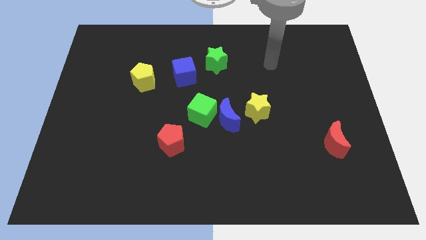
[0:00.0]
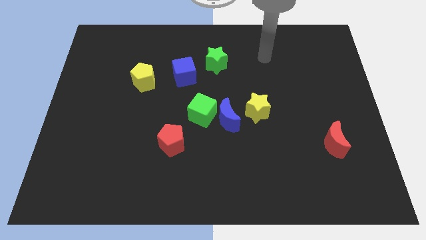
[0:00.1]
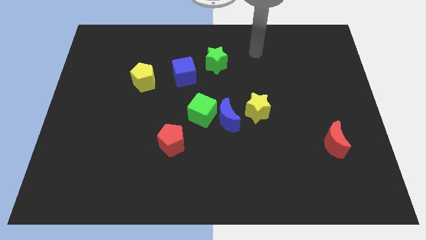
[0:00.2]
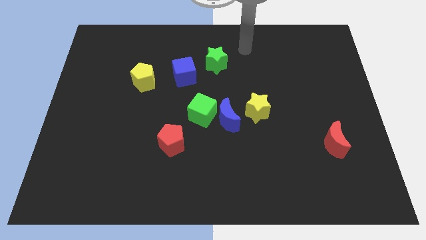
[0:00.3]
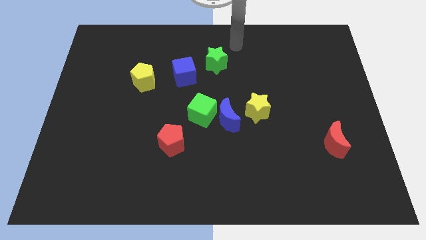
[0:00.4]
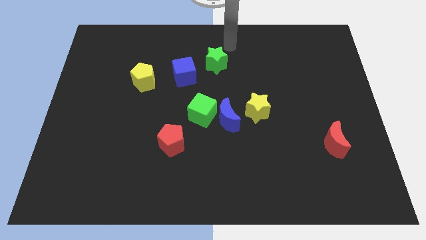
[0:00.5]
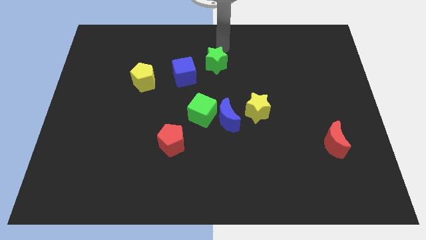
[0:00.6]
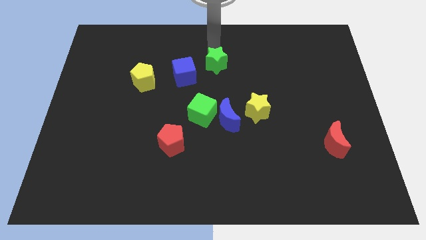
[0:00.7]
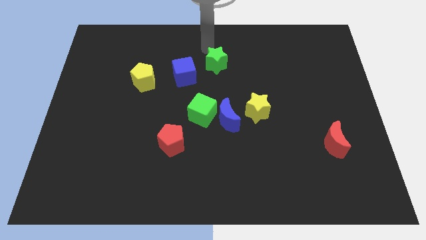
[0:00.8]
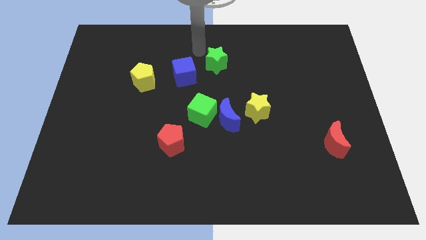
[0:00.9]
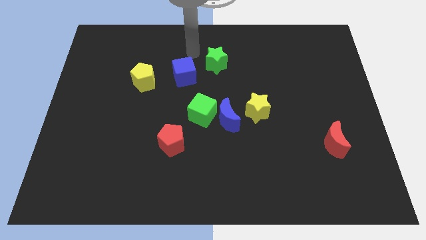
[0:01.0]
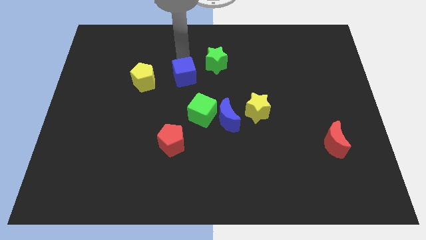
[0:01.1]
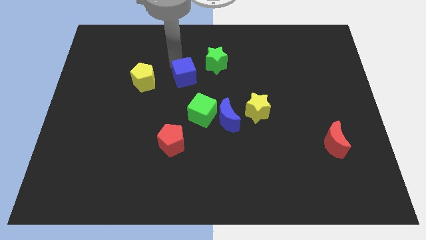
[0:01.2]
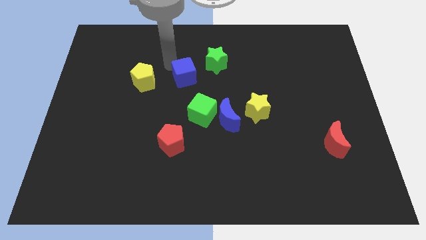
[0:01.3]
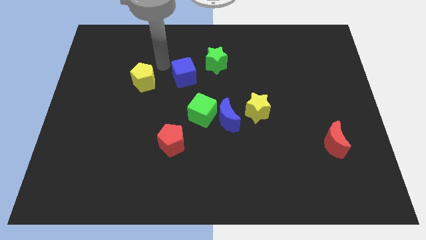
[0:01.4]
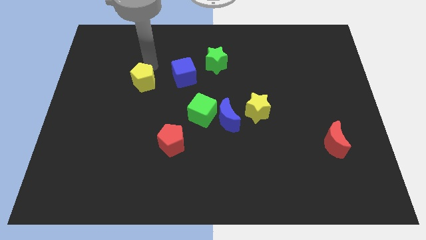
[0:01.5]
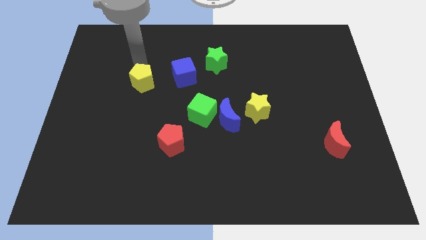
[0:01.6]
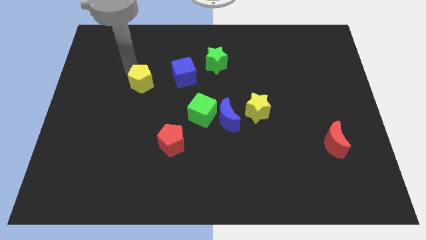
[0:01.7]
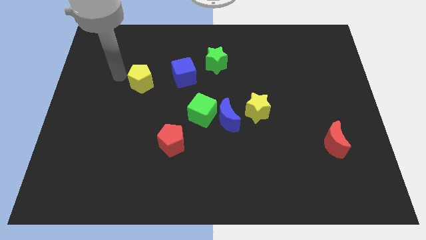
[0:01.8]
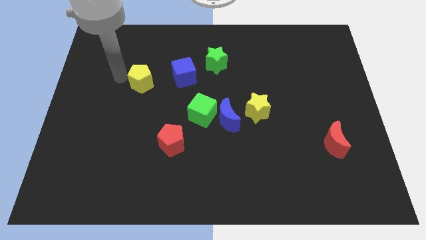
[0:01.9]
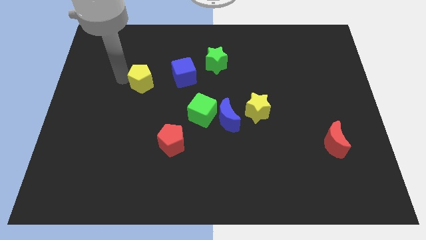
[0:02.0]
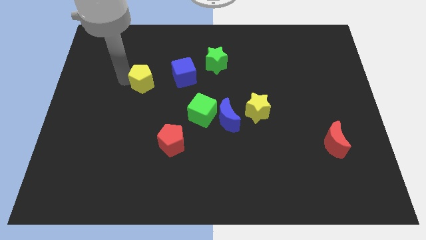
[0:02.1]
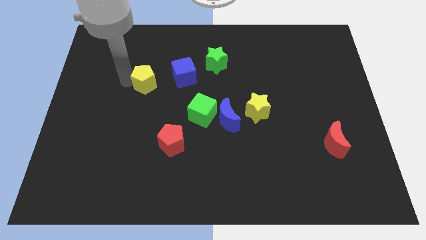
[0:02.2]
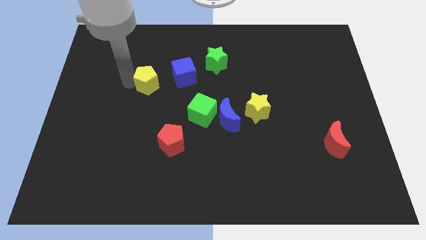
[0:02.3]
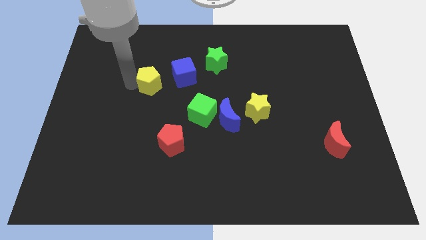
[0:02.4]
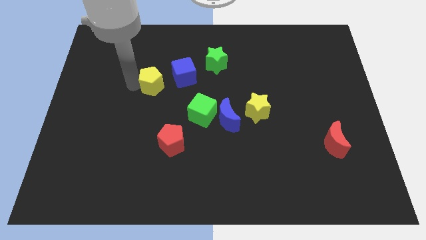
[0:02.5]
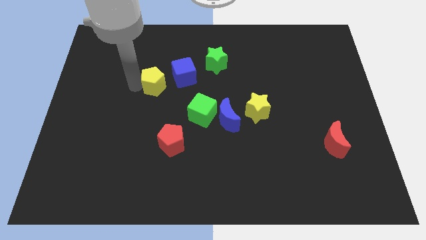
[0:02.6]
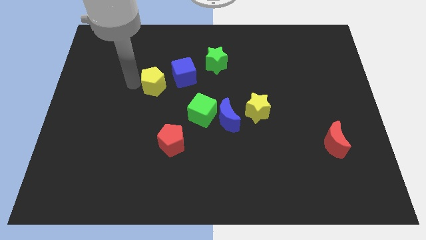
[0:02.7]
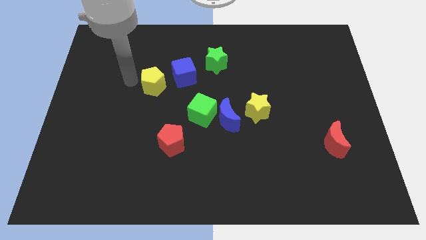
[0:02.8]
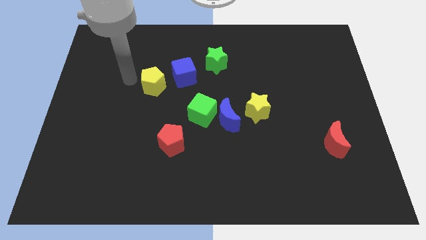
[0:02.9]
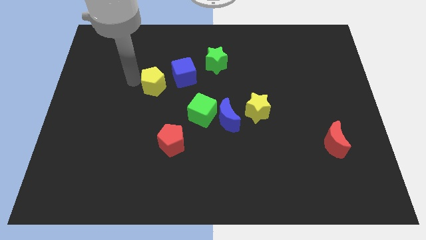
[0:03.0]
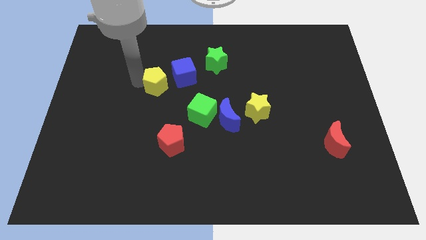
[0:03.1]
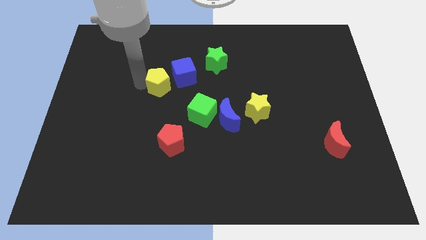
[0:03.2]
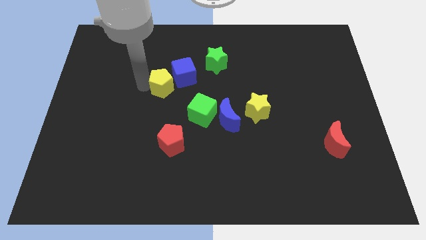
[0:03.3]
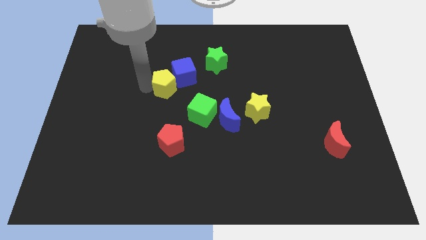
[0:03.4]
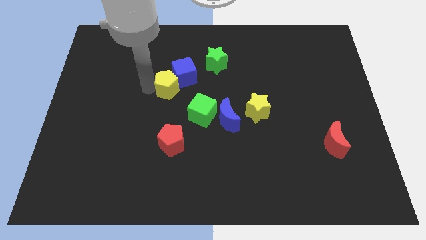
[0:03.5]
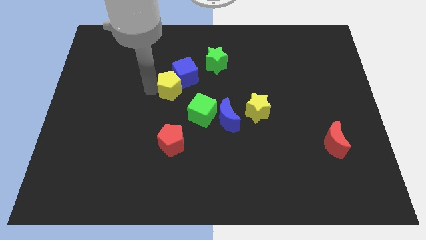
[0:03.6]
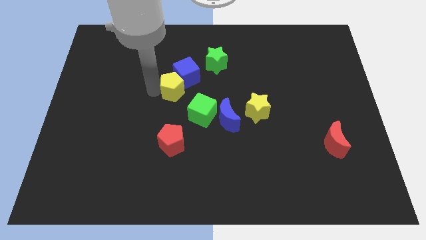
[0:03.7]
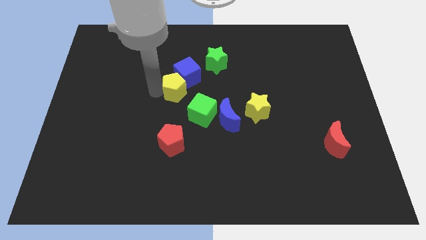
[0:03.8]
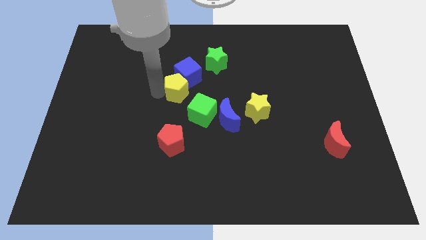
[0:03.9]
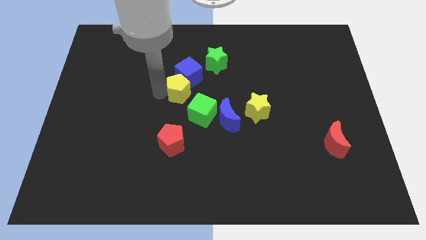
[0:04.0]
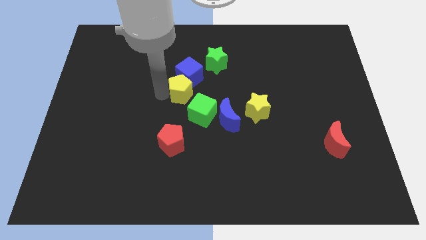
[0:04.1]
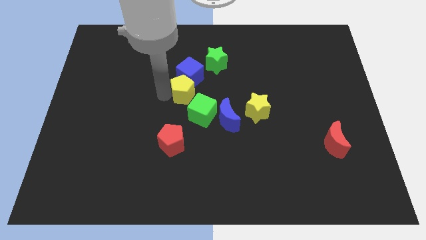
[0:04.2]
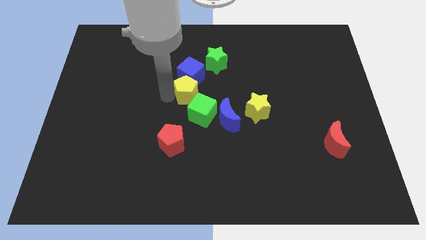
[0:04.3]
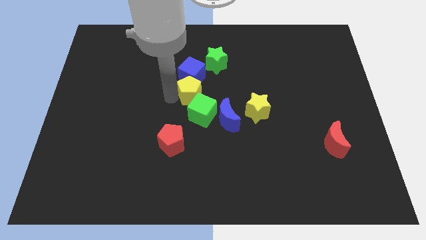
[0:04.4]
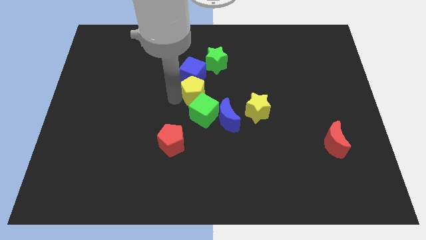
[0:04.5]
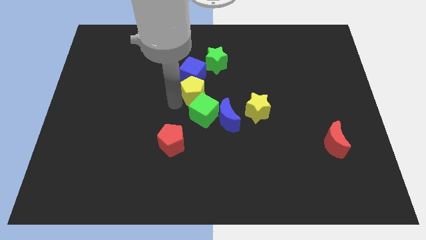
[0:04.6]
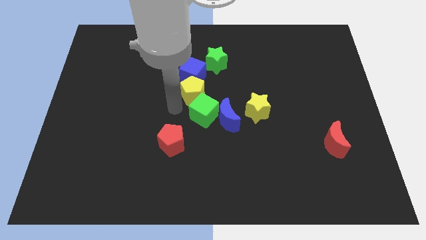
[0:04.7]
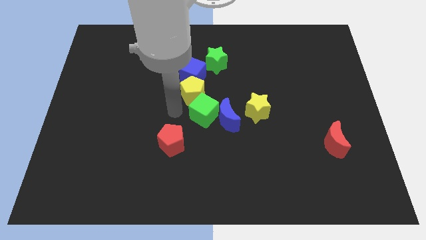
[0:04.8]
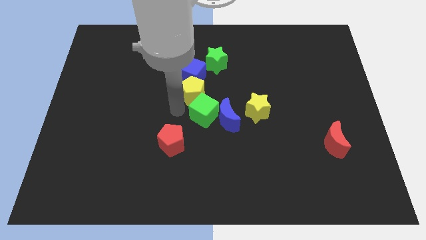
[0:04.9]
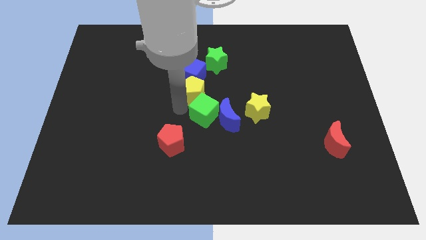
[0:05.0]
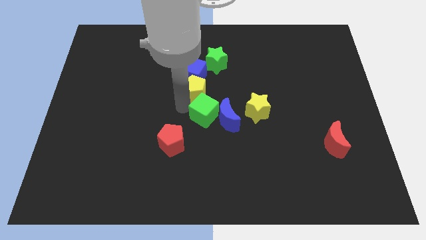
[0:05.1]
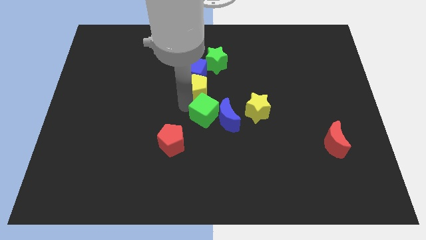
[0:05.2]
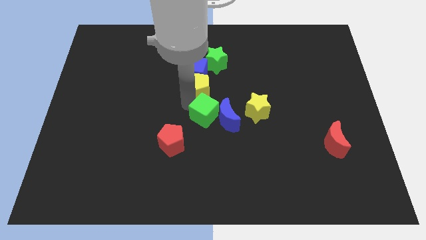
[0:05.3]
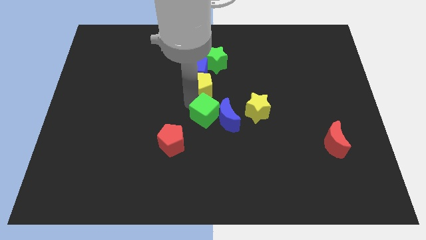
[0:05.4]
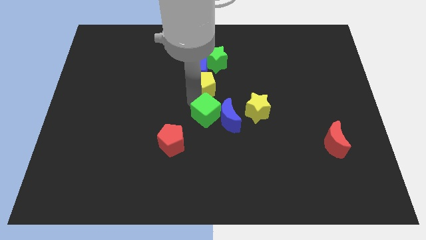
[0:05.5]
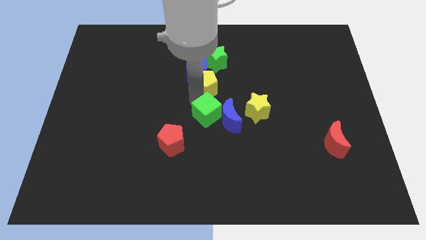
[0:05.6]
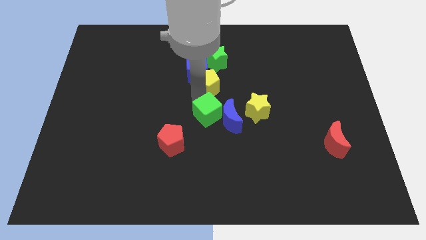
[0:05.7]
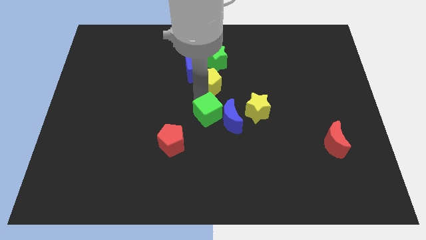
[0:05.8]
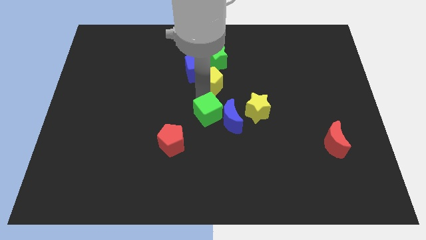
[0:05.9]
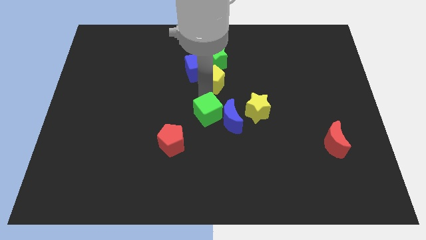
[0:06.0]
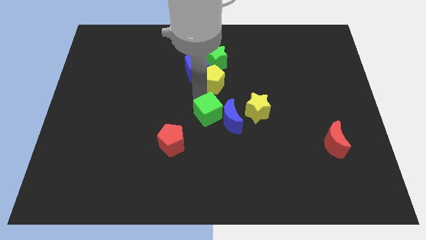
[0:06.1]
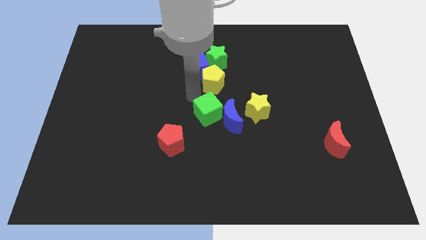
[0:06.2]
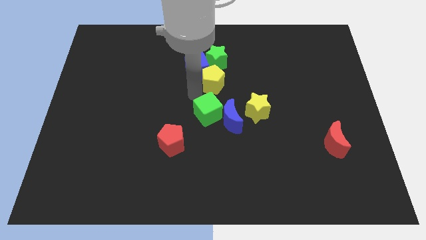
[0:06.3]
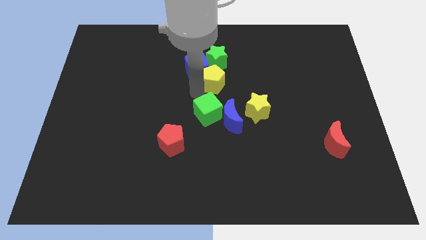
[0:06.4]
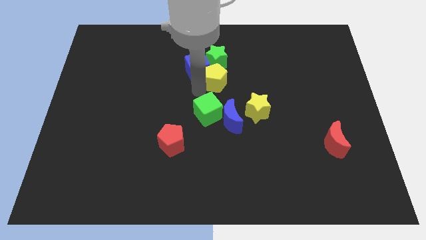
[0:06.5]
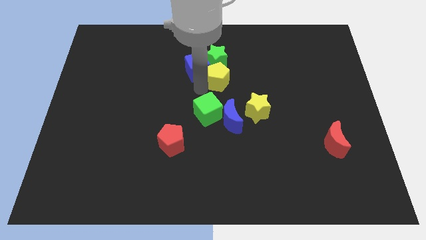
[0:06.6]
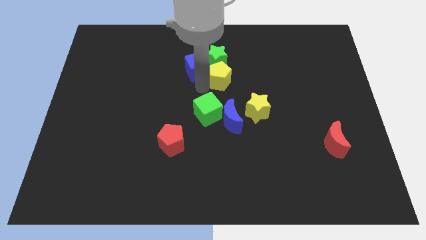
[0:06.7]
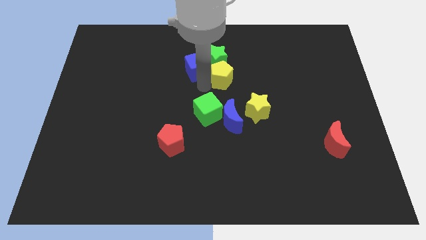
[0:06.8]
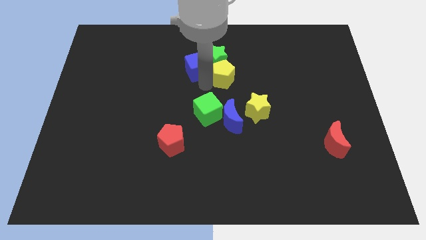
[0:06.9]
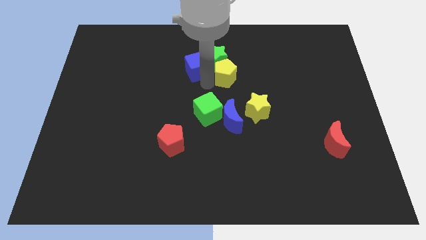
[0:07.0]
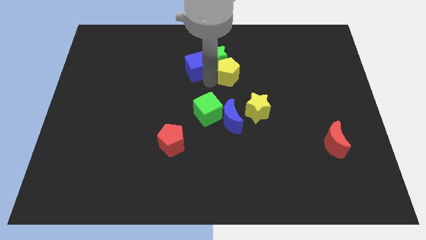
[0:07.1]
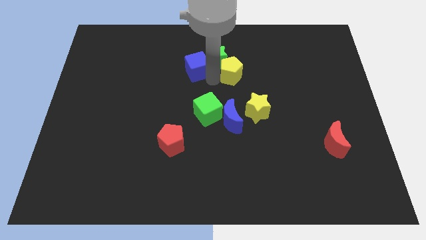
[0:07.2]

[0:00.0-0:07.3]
move the yellow pentagon to the right of the green star

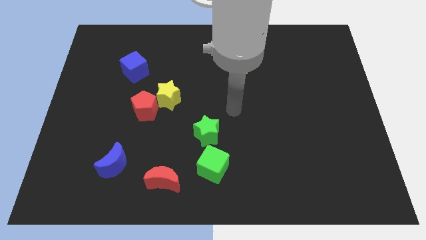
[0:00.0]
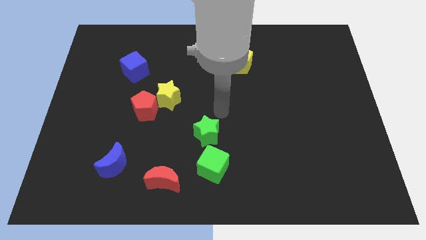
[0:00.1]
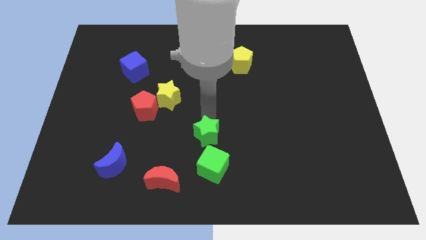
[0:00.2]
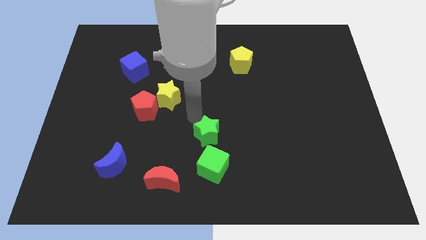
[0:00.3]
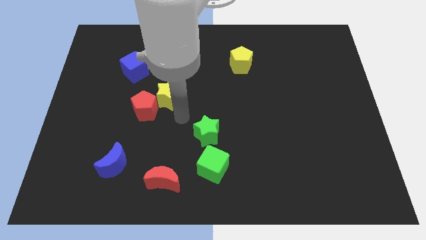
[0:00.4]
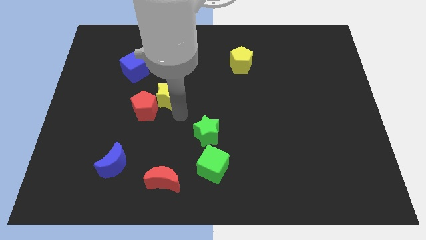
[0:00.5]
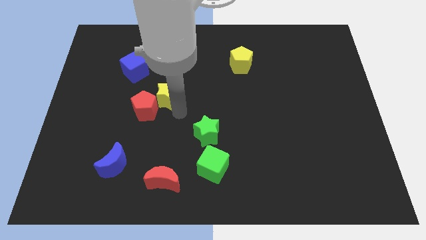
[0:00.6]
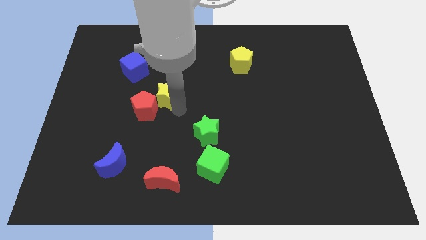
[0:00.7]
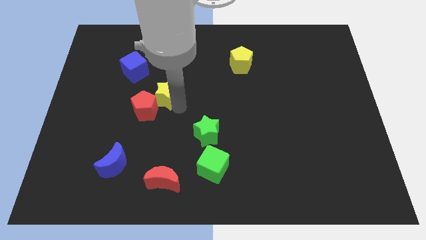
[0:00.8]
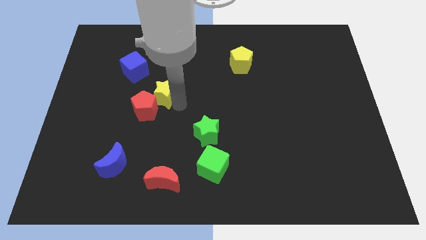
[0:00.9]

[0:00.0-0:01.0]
move the yellow star to the top side of the red pentagon
